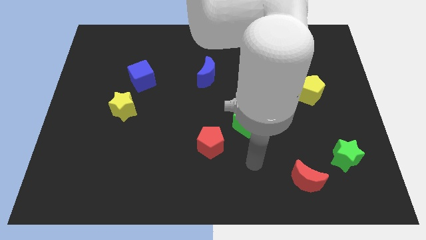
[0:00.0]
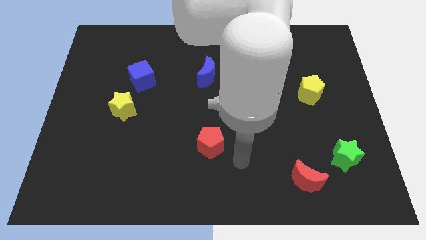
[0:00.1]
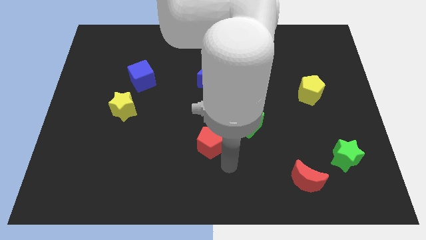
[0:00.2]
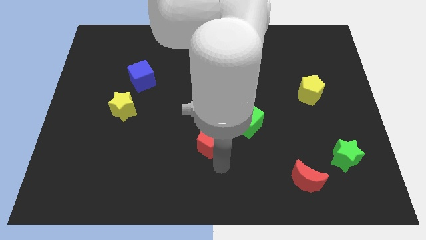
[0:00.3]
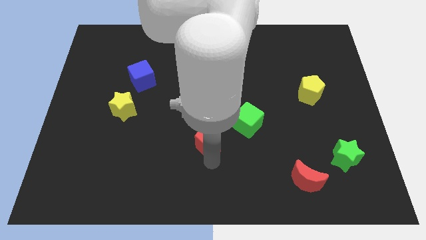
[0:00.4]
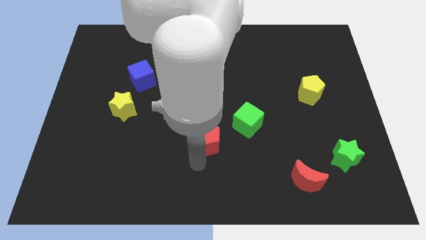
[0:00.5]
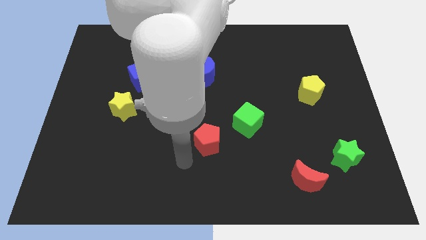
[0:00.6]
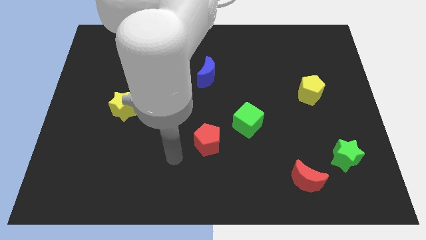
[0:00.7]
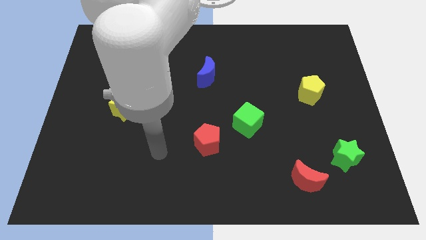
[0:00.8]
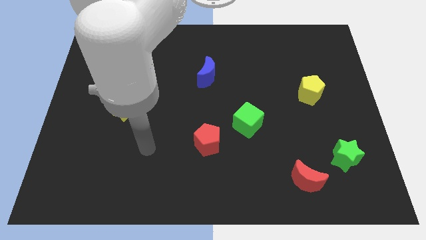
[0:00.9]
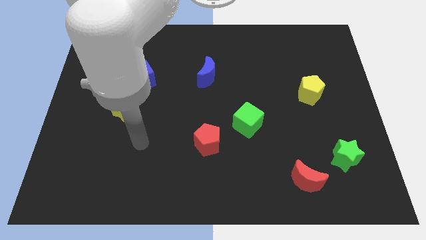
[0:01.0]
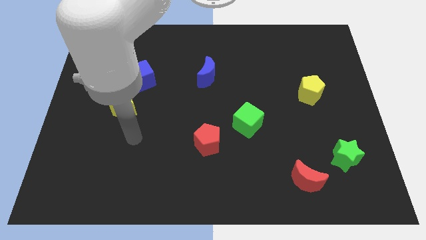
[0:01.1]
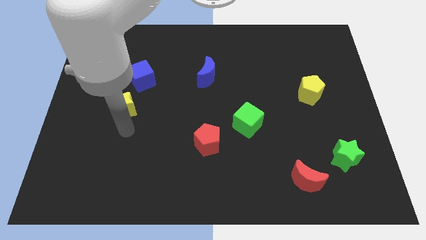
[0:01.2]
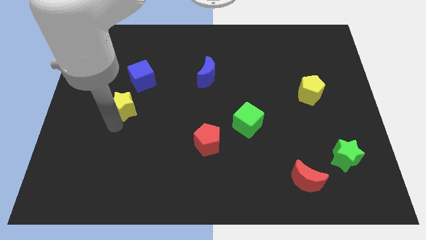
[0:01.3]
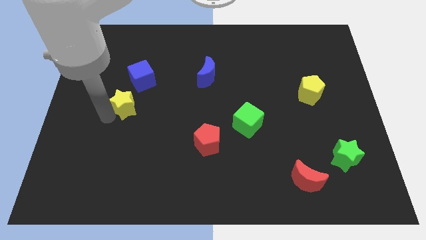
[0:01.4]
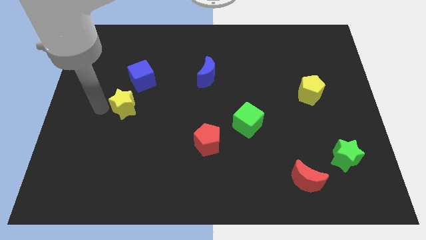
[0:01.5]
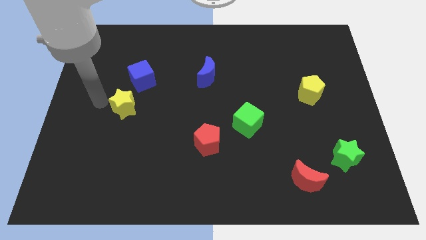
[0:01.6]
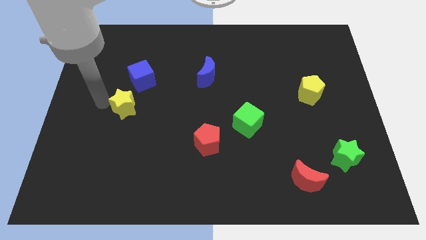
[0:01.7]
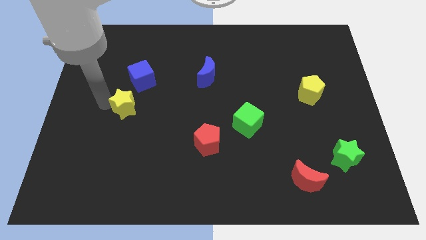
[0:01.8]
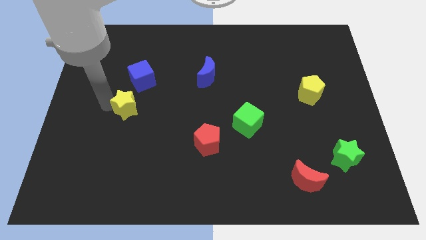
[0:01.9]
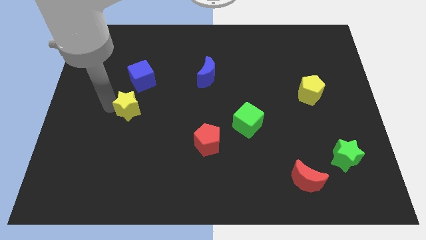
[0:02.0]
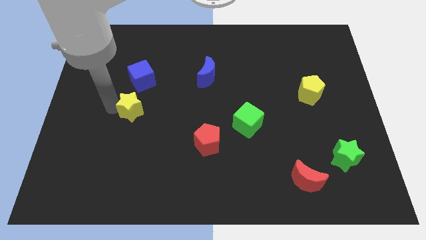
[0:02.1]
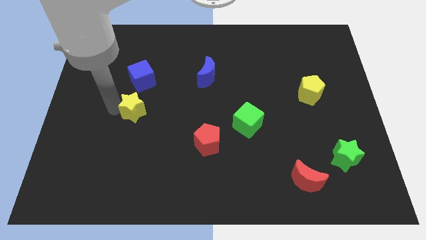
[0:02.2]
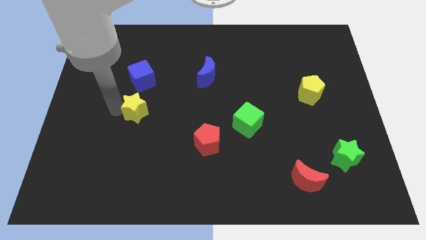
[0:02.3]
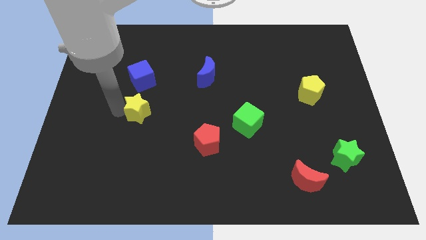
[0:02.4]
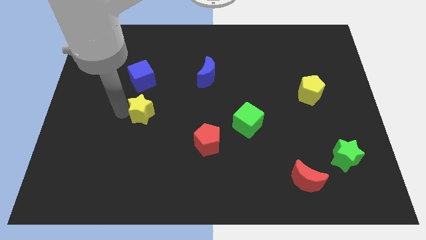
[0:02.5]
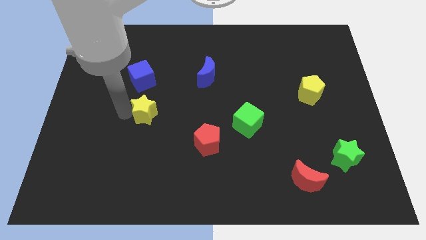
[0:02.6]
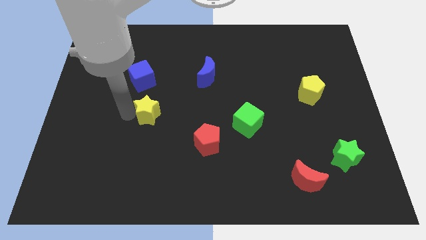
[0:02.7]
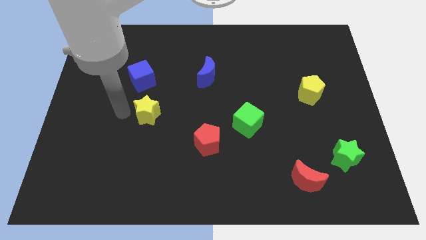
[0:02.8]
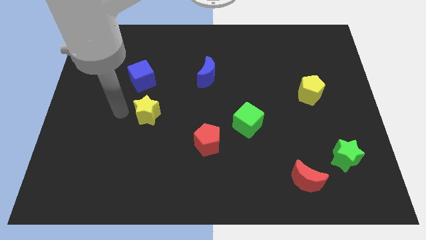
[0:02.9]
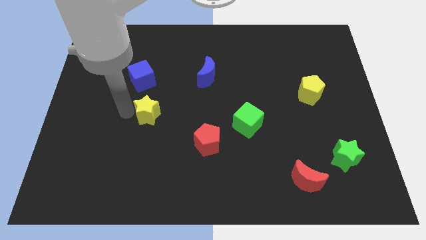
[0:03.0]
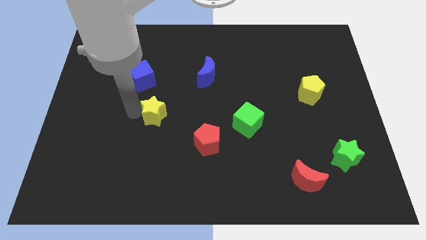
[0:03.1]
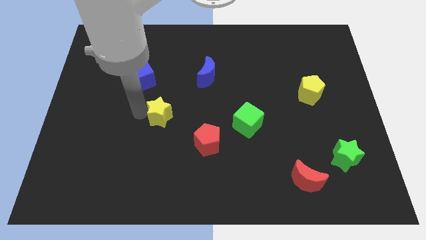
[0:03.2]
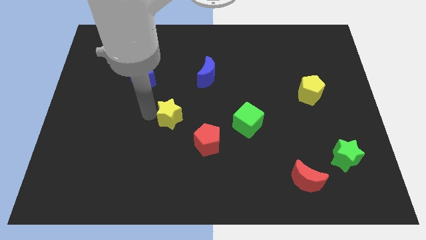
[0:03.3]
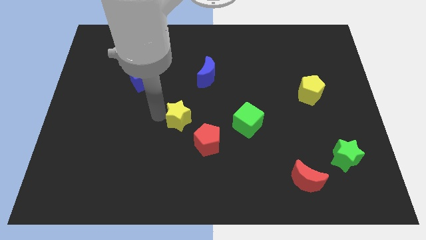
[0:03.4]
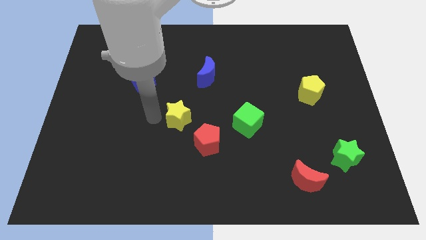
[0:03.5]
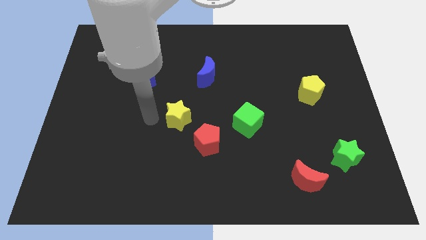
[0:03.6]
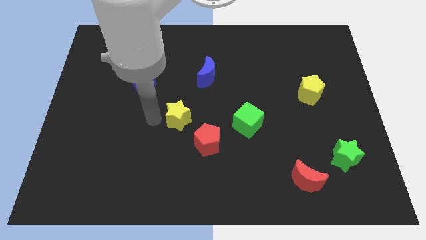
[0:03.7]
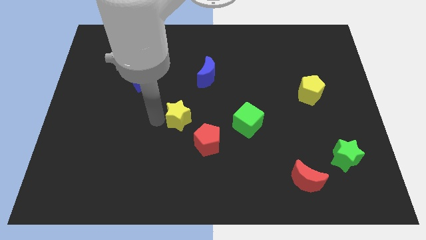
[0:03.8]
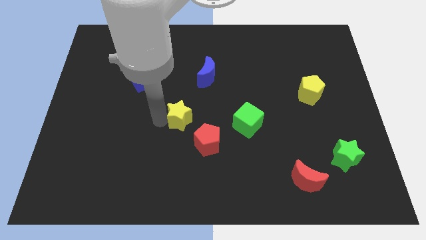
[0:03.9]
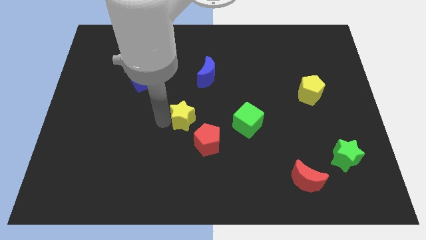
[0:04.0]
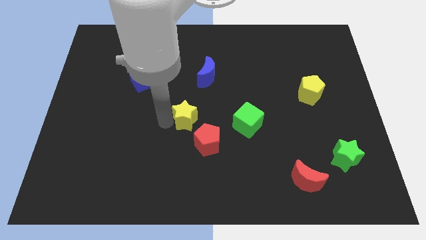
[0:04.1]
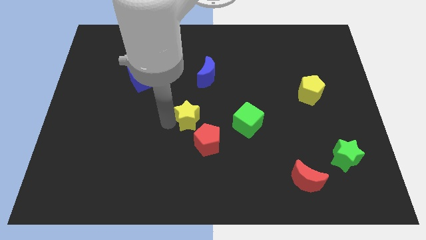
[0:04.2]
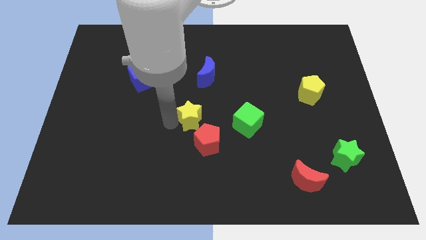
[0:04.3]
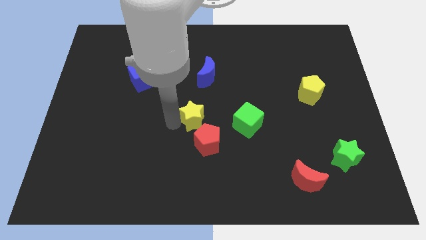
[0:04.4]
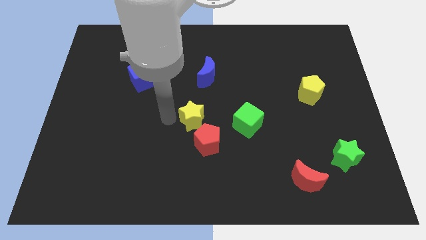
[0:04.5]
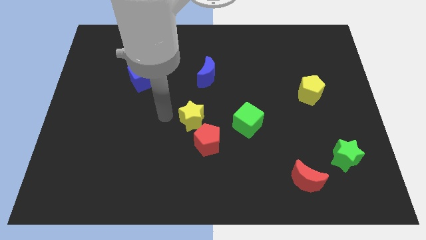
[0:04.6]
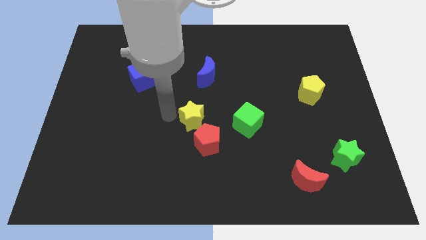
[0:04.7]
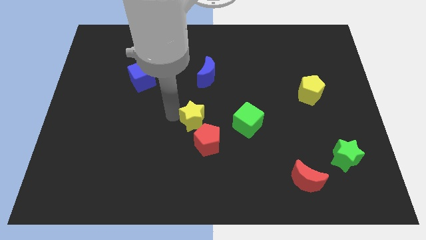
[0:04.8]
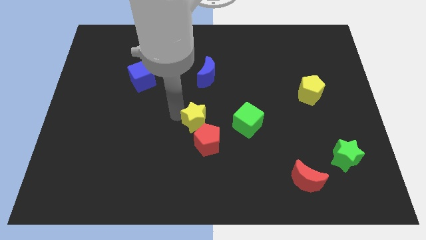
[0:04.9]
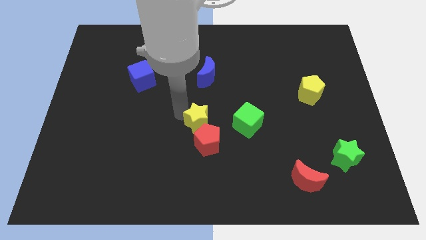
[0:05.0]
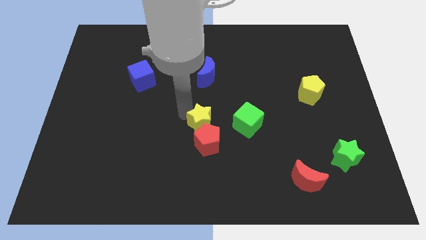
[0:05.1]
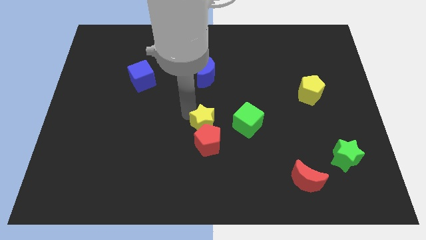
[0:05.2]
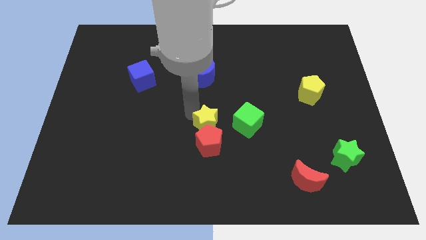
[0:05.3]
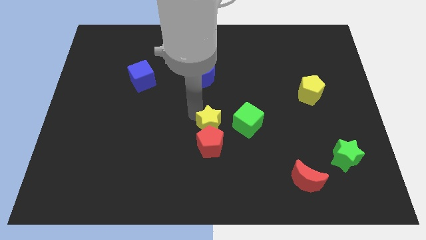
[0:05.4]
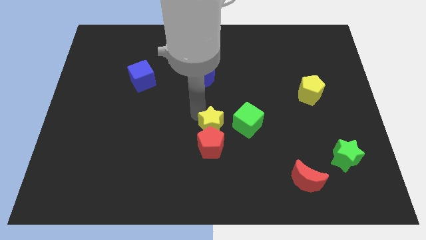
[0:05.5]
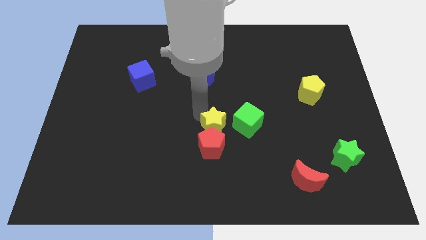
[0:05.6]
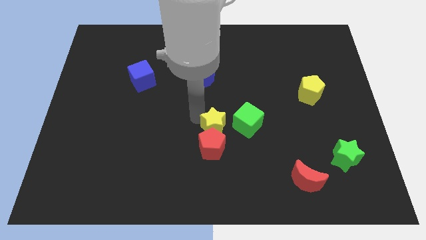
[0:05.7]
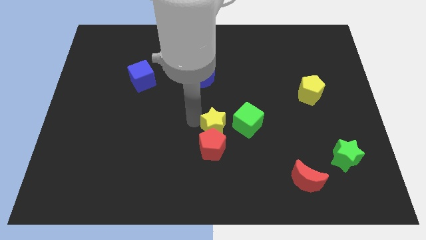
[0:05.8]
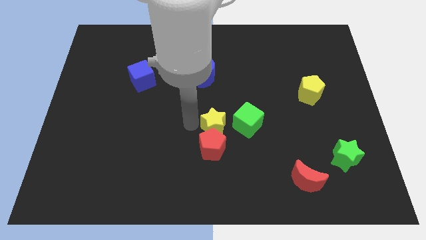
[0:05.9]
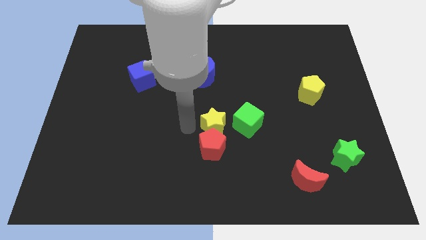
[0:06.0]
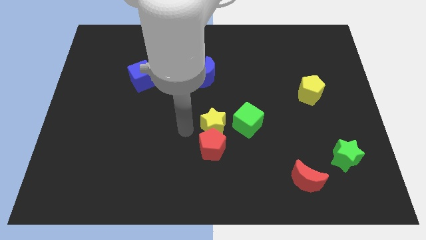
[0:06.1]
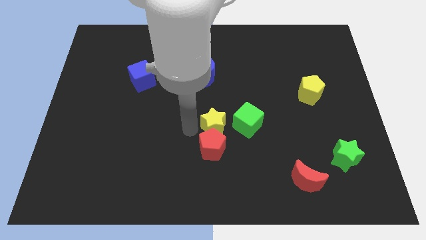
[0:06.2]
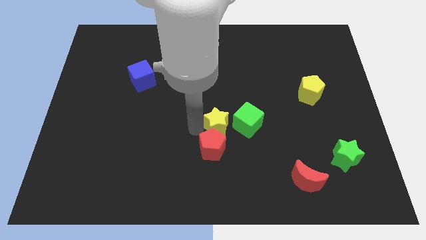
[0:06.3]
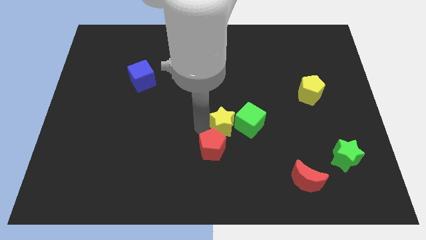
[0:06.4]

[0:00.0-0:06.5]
put the yellow star towards the green cube

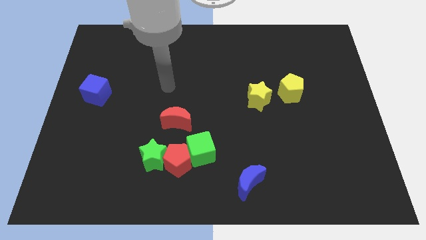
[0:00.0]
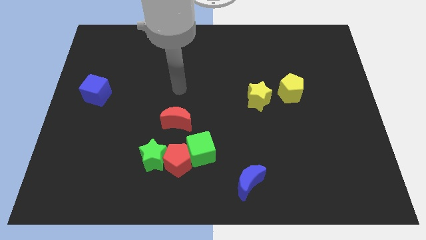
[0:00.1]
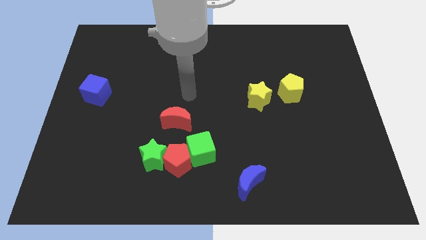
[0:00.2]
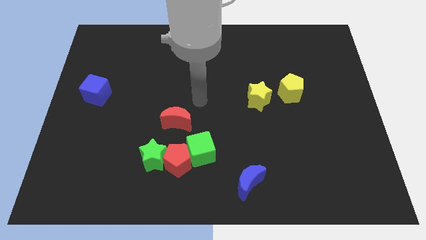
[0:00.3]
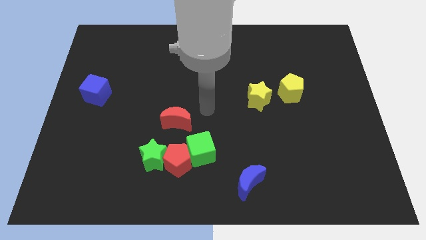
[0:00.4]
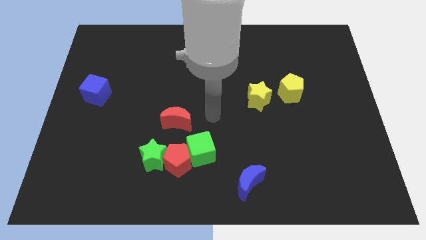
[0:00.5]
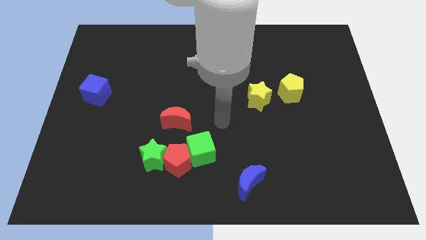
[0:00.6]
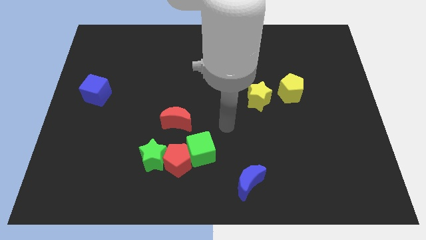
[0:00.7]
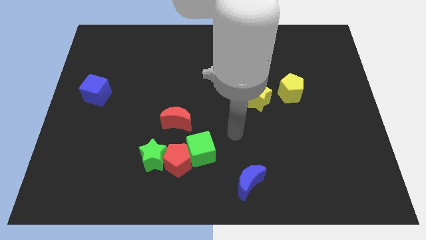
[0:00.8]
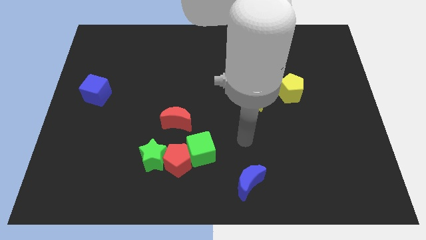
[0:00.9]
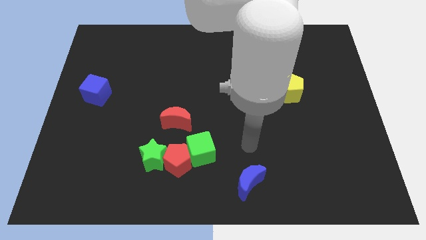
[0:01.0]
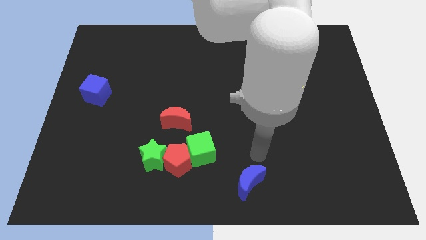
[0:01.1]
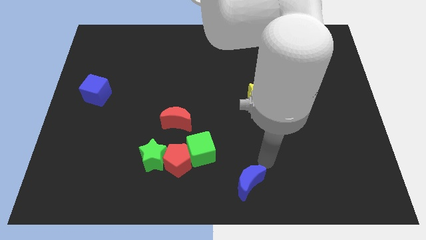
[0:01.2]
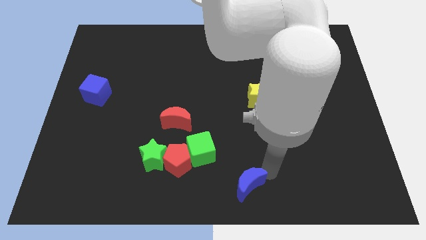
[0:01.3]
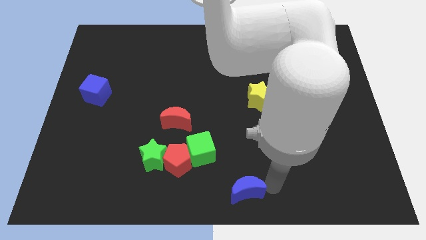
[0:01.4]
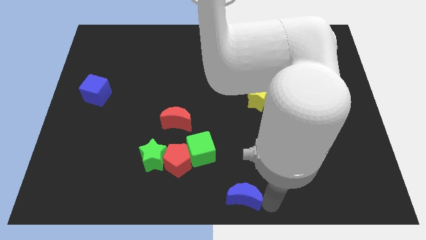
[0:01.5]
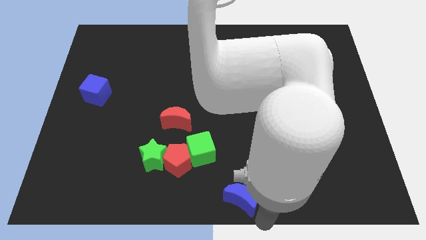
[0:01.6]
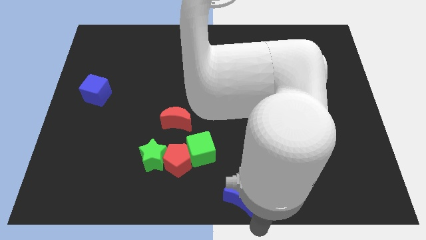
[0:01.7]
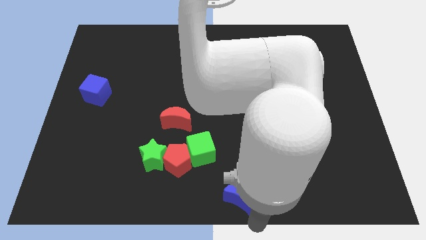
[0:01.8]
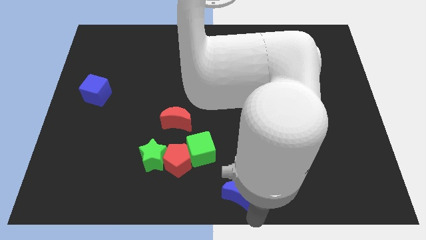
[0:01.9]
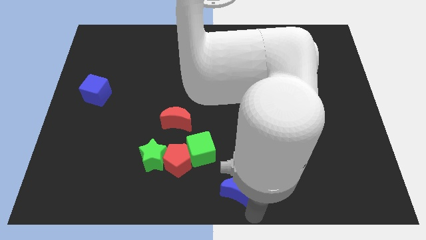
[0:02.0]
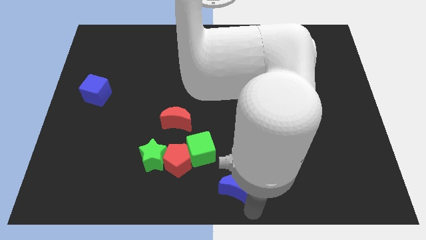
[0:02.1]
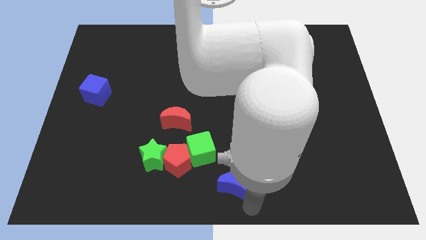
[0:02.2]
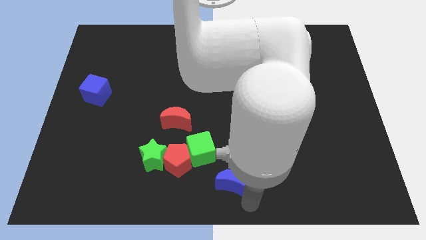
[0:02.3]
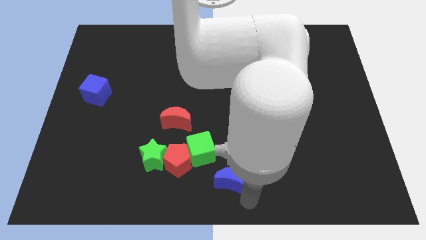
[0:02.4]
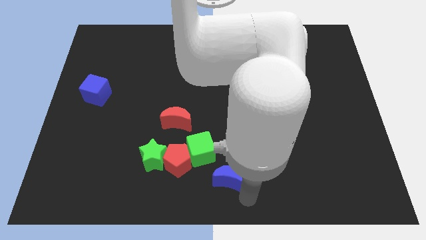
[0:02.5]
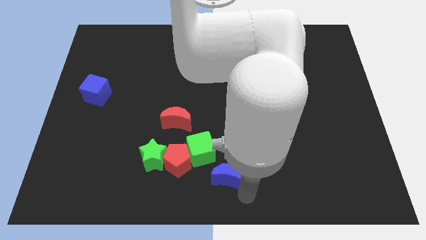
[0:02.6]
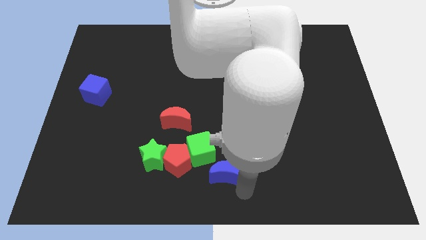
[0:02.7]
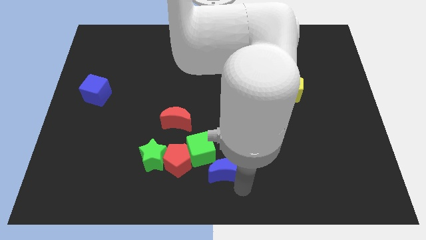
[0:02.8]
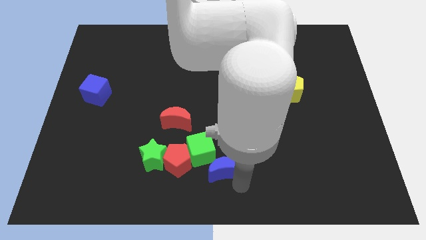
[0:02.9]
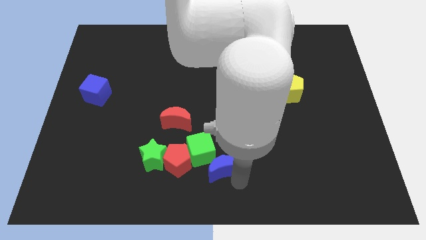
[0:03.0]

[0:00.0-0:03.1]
put the blue moon towards the green cube
